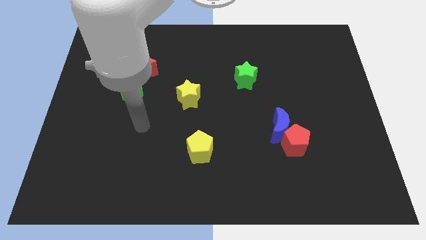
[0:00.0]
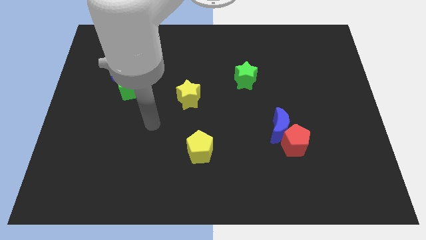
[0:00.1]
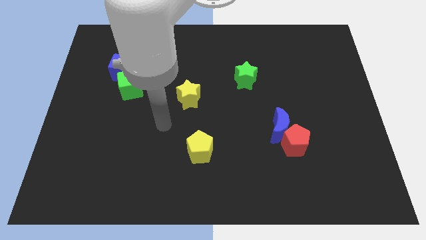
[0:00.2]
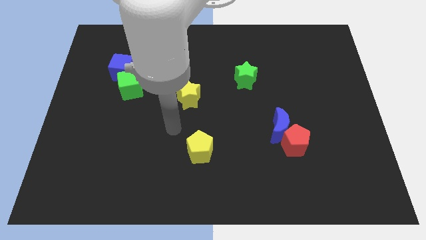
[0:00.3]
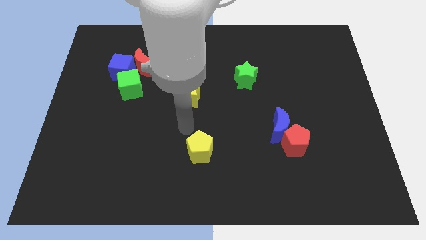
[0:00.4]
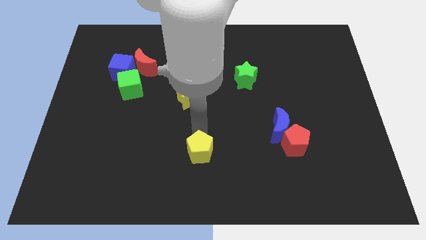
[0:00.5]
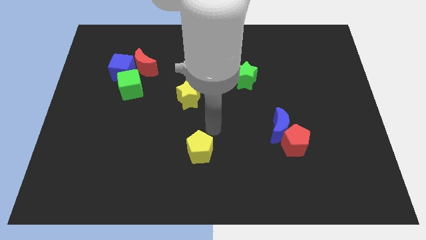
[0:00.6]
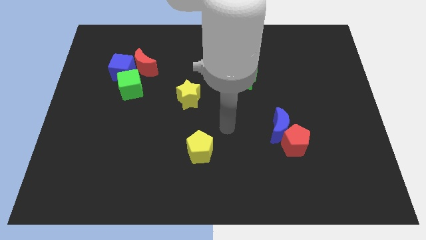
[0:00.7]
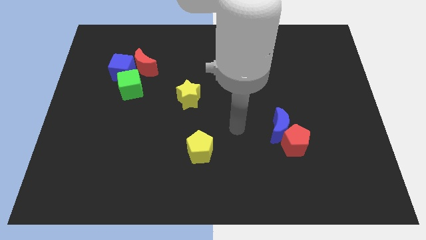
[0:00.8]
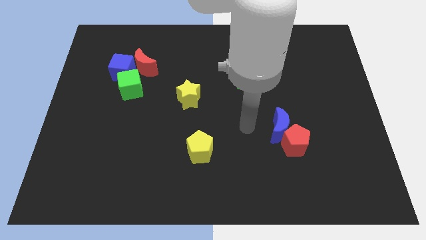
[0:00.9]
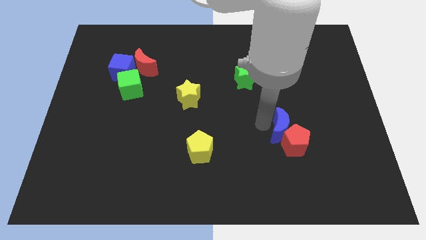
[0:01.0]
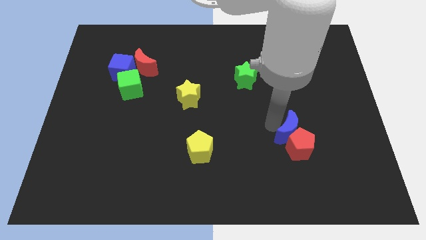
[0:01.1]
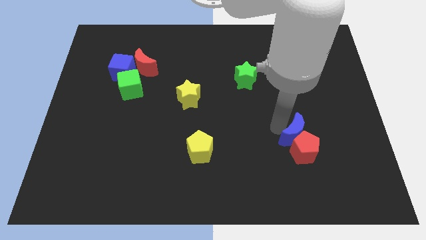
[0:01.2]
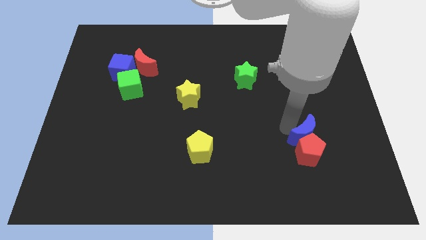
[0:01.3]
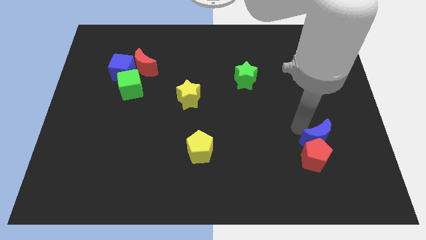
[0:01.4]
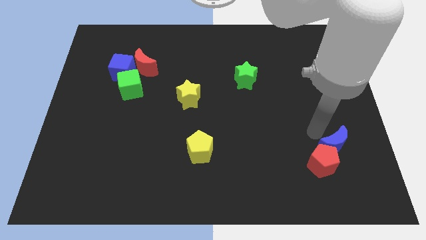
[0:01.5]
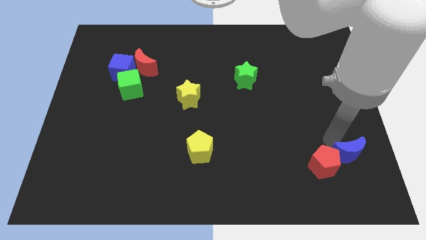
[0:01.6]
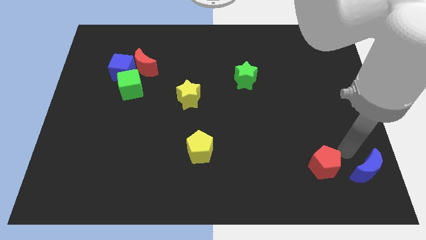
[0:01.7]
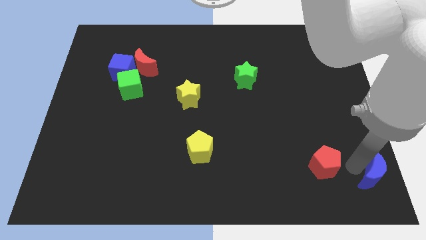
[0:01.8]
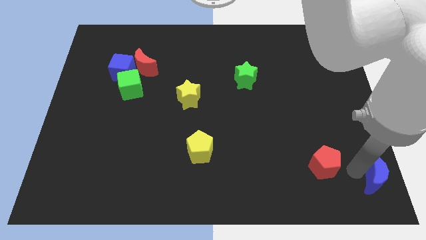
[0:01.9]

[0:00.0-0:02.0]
move the red pentagon away from the blue moon

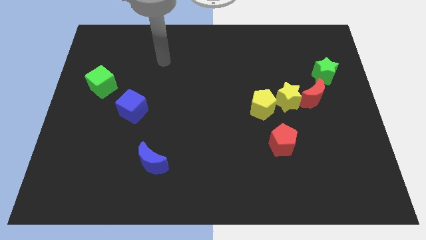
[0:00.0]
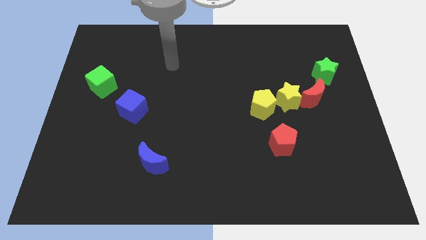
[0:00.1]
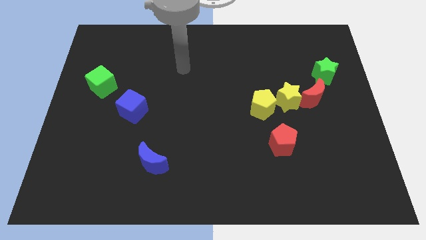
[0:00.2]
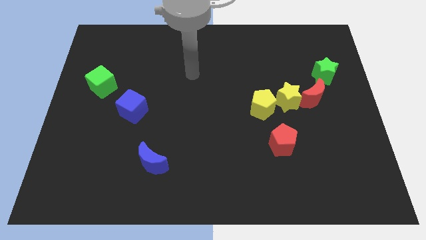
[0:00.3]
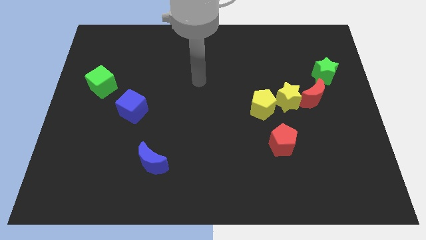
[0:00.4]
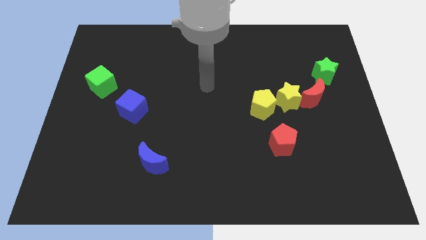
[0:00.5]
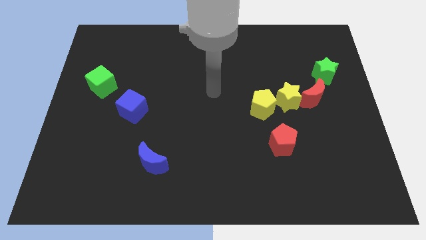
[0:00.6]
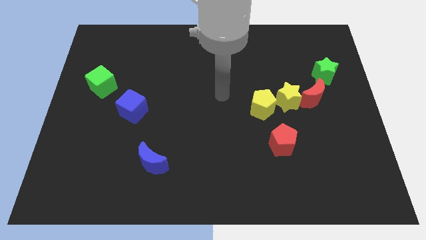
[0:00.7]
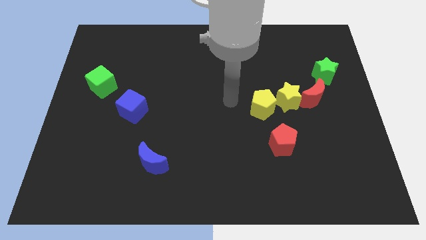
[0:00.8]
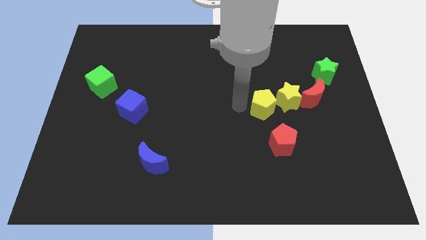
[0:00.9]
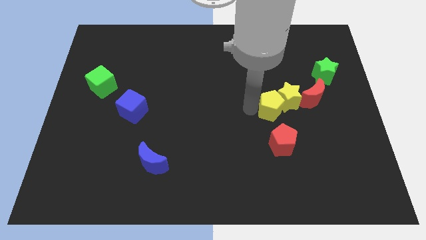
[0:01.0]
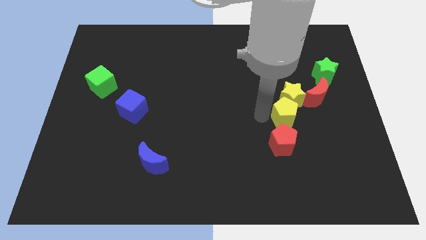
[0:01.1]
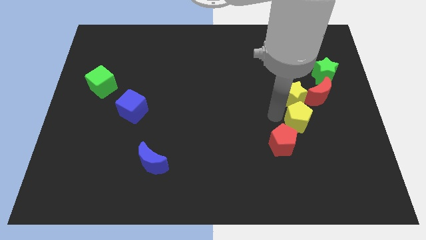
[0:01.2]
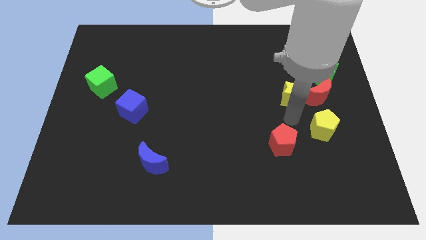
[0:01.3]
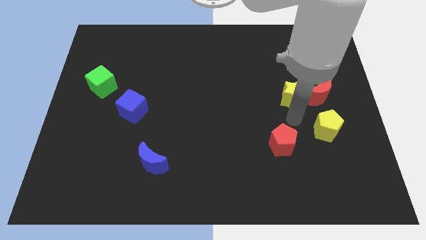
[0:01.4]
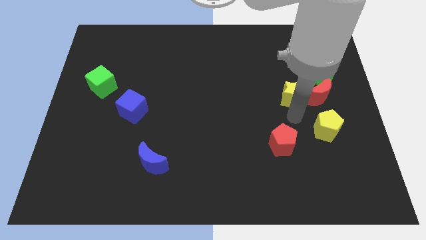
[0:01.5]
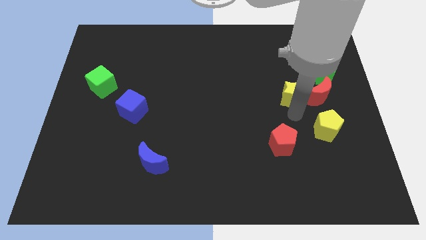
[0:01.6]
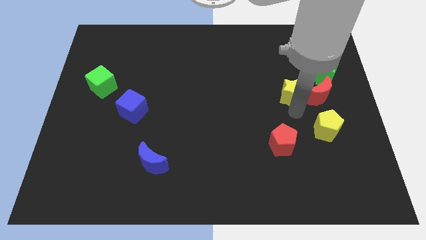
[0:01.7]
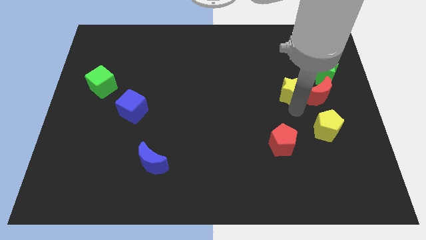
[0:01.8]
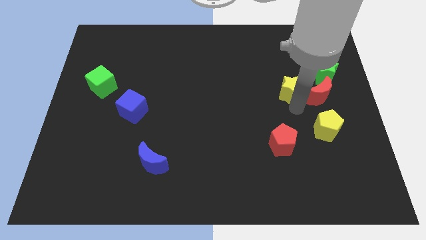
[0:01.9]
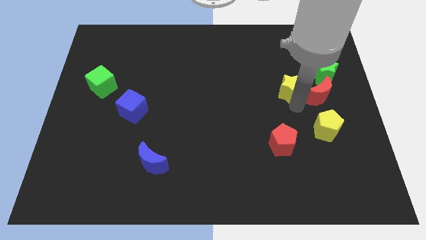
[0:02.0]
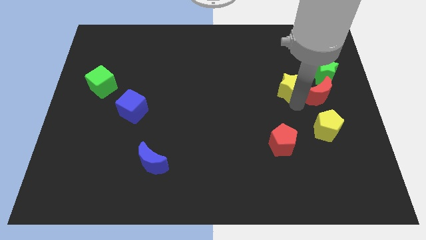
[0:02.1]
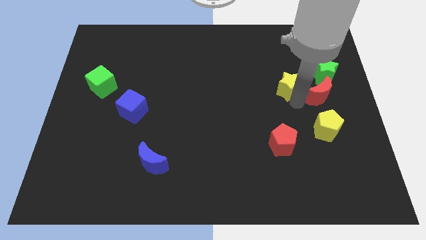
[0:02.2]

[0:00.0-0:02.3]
move the yellow star away from the red moon and yellow pentagon

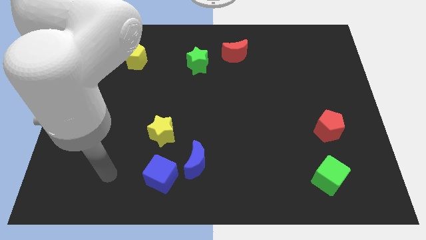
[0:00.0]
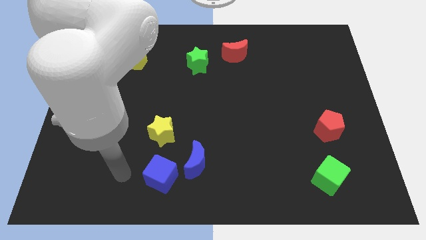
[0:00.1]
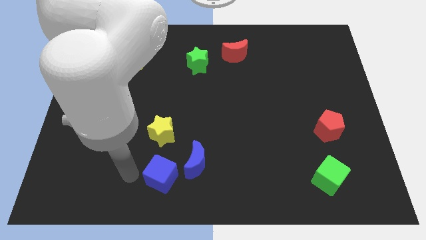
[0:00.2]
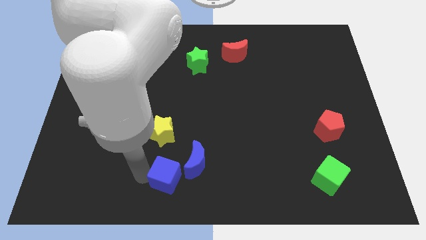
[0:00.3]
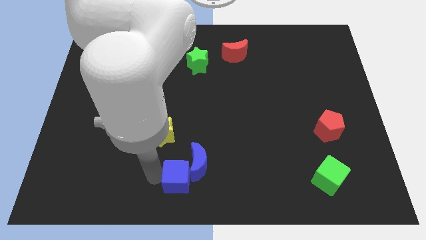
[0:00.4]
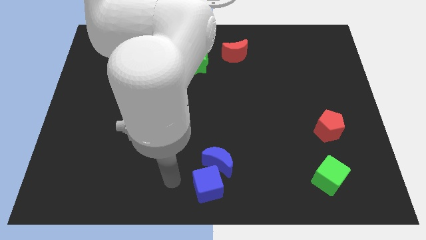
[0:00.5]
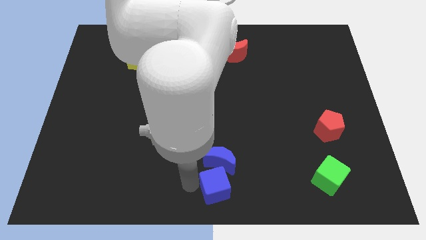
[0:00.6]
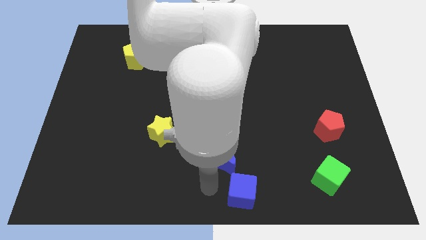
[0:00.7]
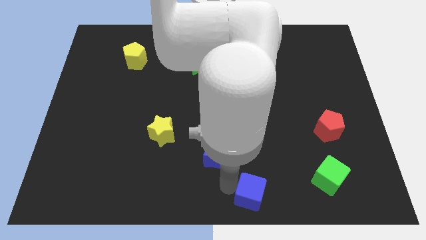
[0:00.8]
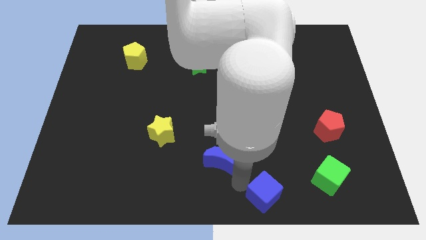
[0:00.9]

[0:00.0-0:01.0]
separate the blue moon from the blue cube

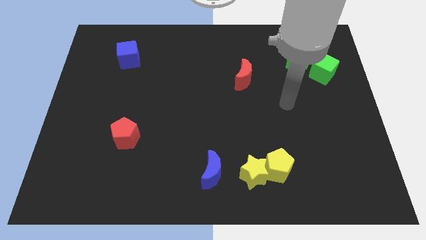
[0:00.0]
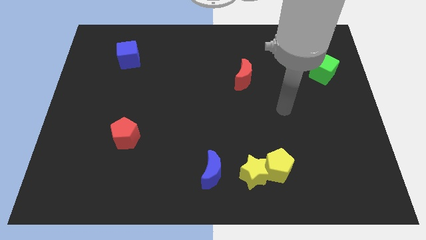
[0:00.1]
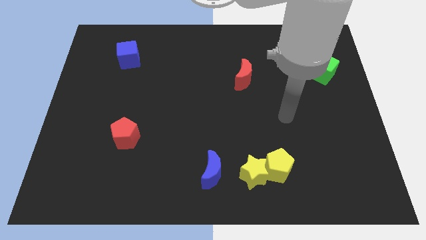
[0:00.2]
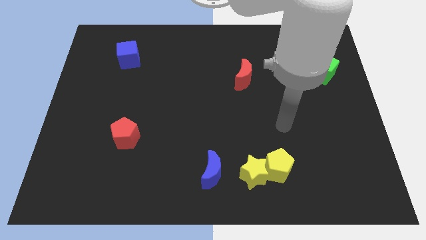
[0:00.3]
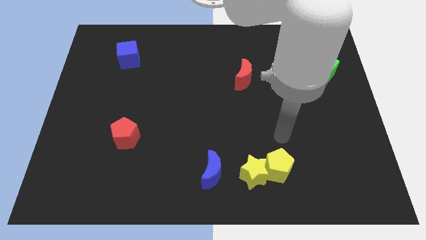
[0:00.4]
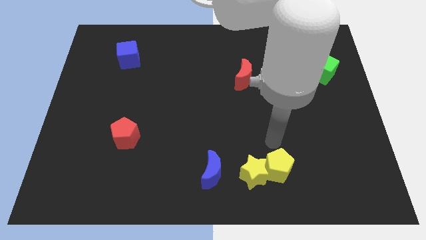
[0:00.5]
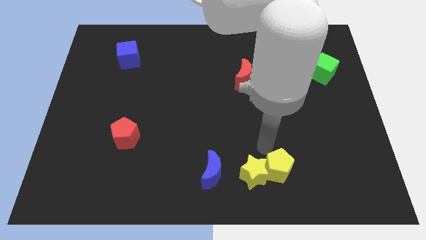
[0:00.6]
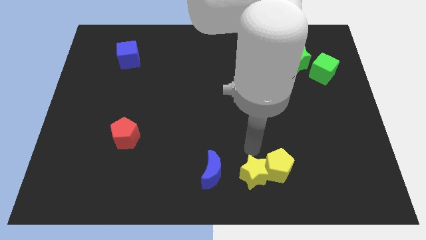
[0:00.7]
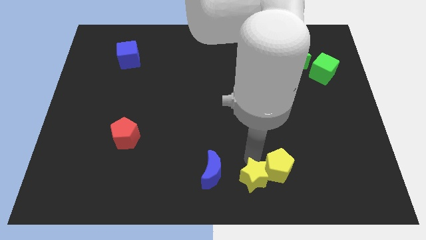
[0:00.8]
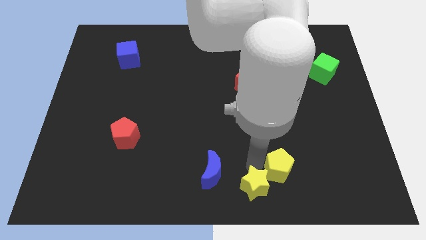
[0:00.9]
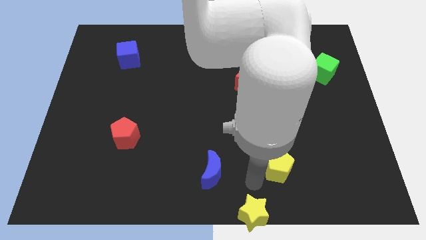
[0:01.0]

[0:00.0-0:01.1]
move the yellow pentagon away from the yellow star

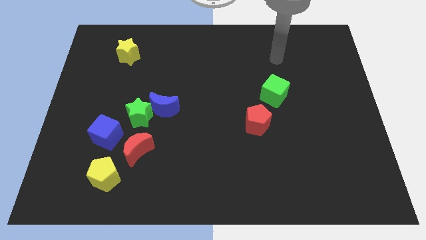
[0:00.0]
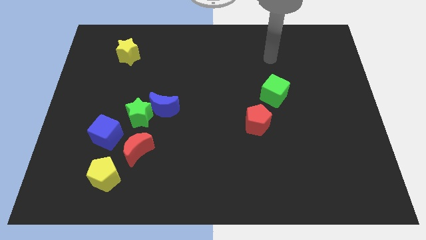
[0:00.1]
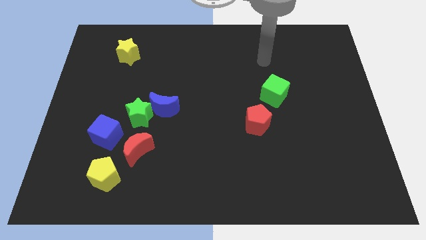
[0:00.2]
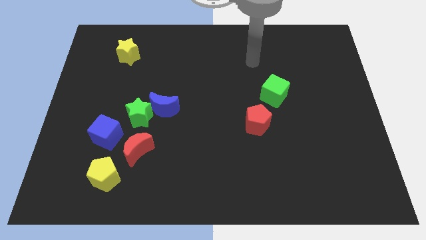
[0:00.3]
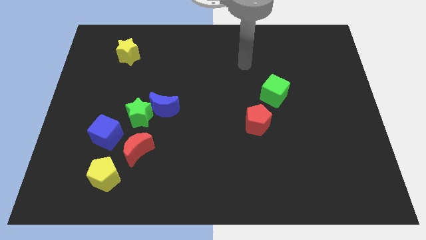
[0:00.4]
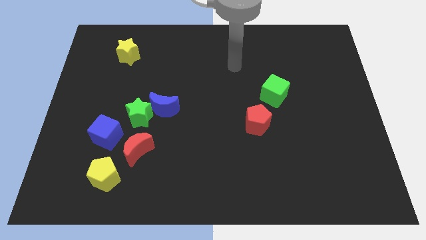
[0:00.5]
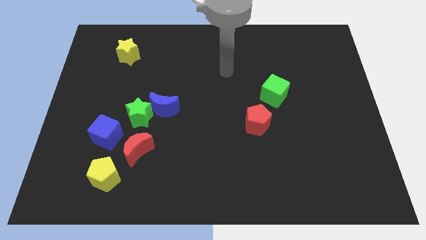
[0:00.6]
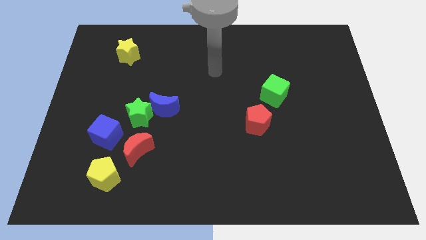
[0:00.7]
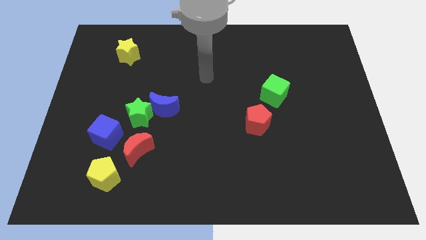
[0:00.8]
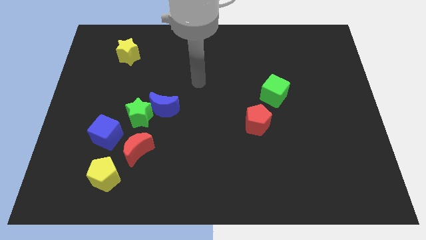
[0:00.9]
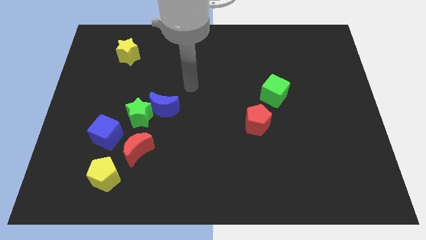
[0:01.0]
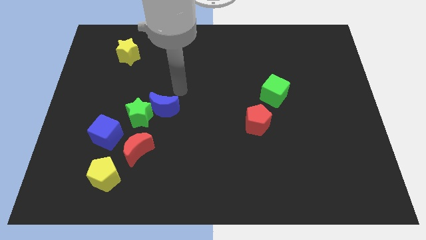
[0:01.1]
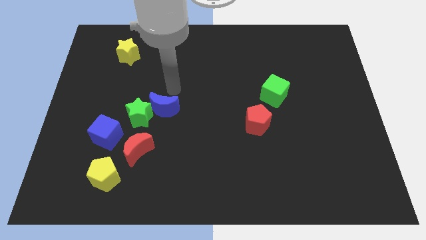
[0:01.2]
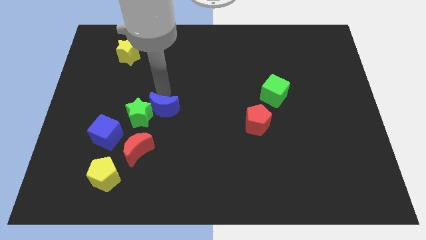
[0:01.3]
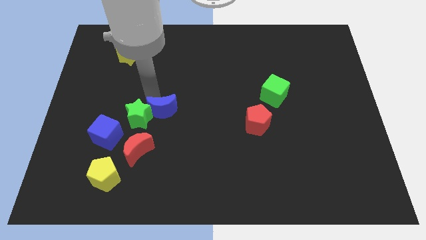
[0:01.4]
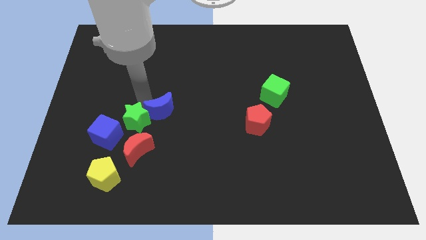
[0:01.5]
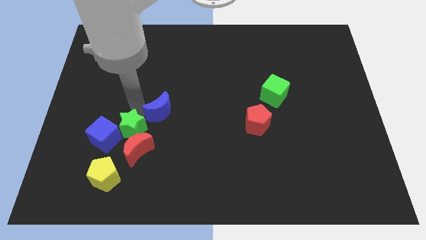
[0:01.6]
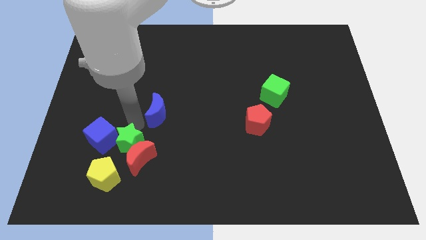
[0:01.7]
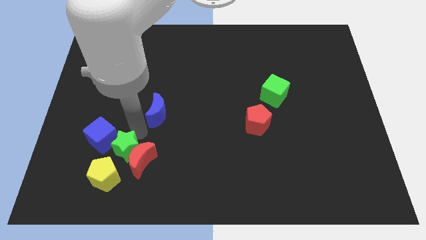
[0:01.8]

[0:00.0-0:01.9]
separate the blue moon from the green star

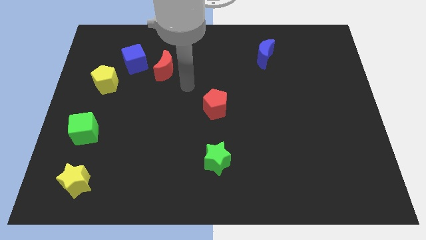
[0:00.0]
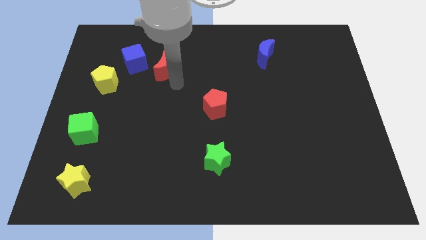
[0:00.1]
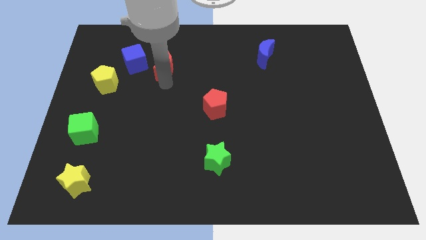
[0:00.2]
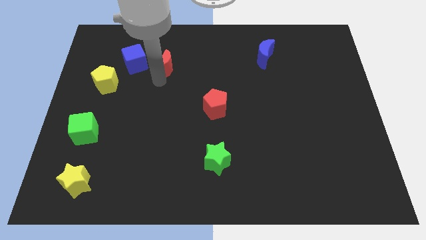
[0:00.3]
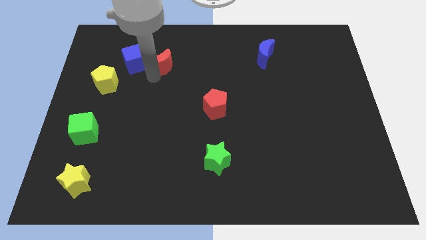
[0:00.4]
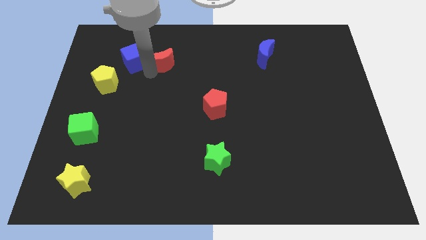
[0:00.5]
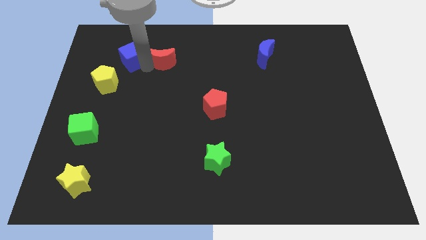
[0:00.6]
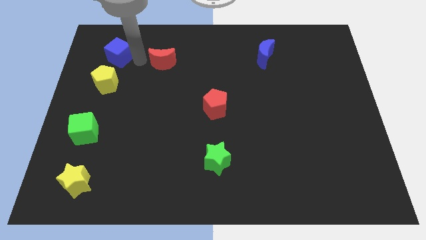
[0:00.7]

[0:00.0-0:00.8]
move the red moon away from the blue cube

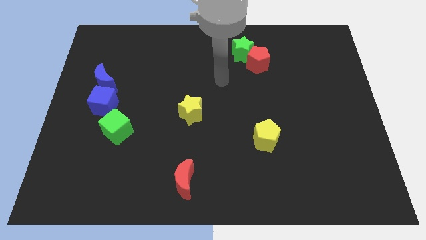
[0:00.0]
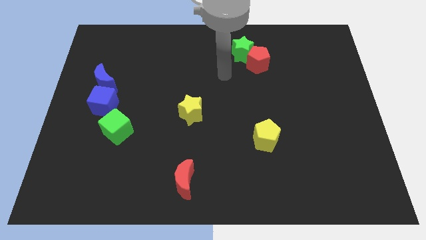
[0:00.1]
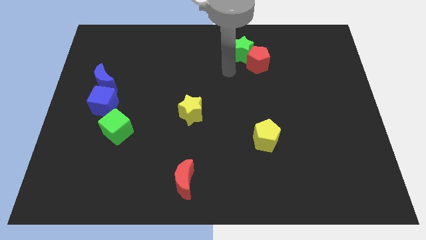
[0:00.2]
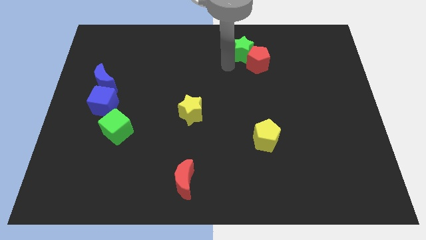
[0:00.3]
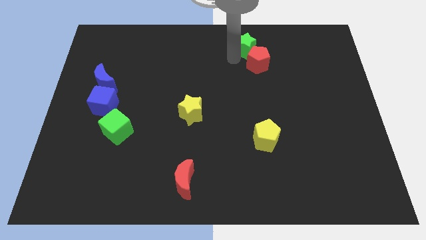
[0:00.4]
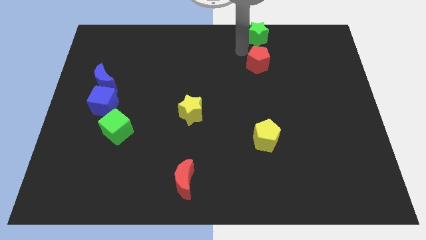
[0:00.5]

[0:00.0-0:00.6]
separate the red pentagon from the green star
